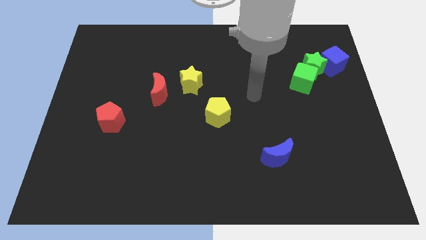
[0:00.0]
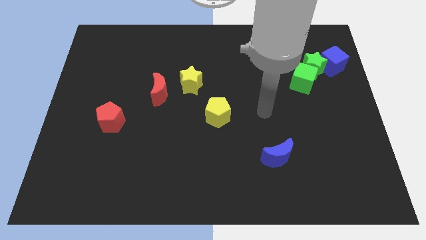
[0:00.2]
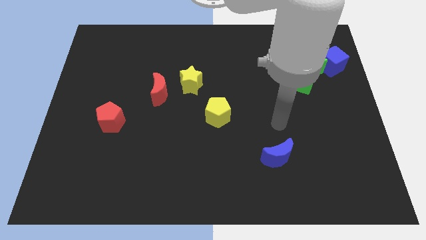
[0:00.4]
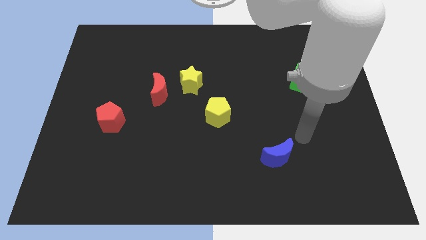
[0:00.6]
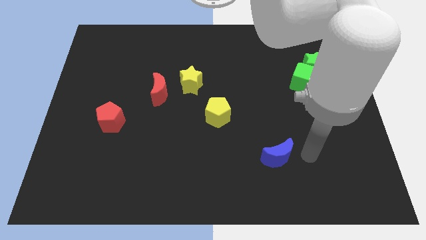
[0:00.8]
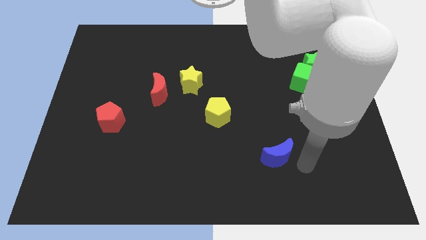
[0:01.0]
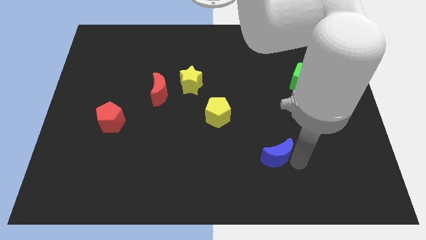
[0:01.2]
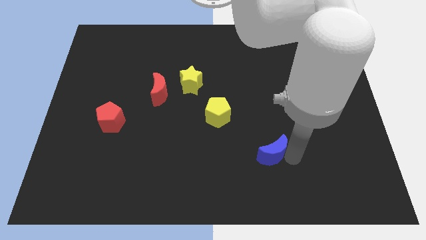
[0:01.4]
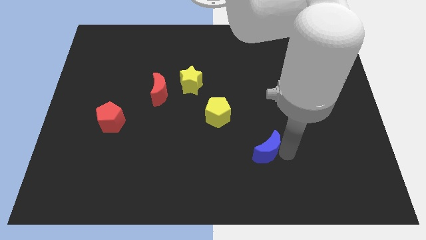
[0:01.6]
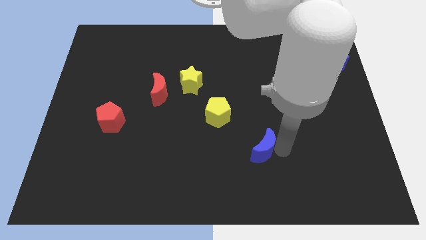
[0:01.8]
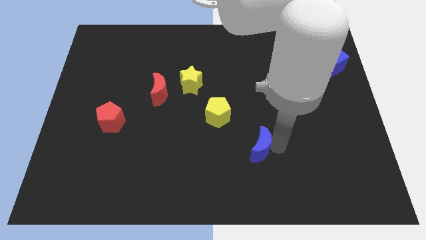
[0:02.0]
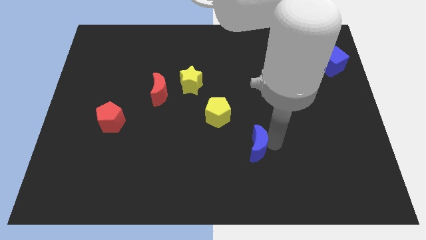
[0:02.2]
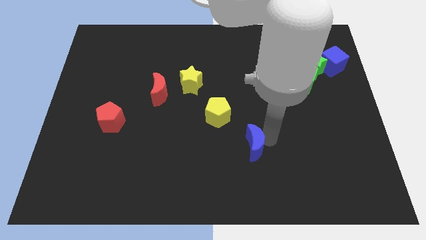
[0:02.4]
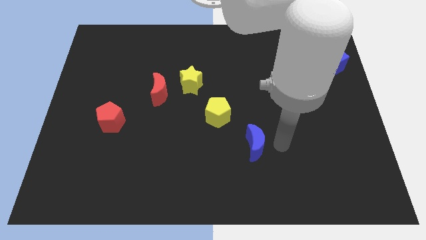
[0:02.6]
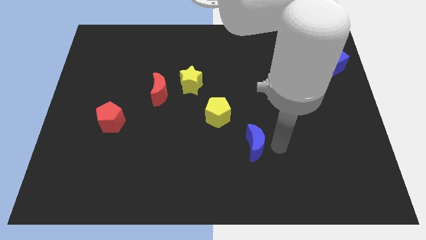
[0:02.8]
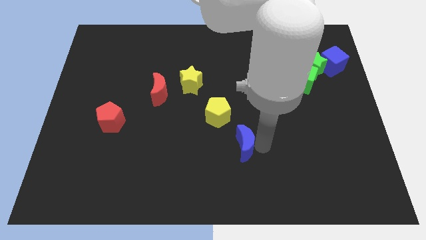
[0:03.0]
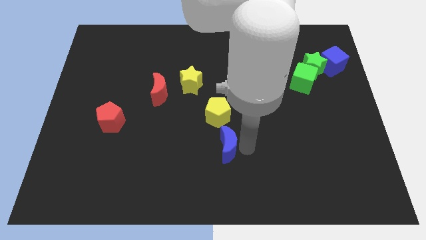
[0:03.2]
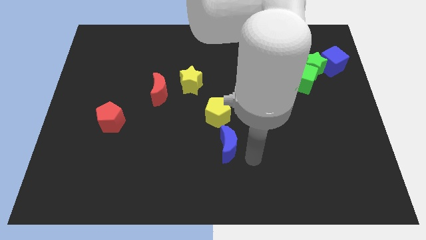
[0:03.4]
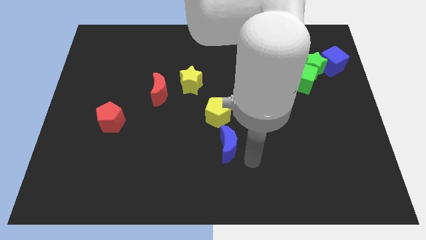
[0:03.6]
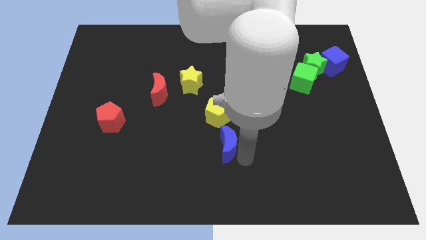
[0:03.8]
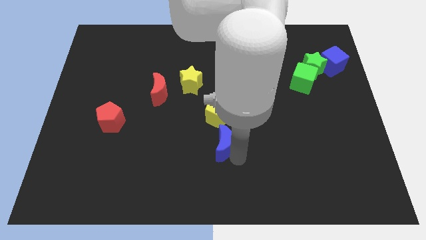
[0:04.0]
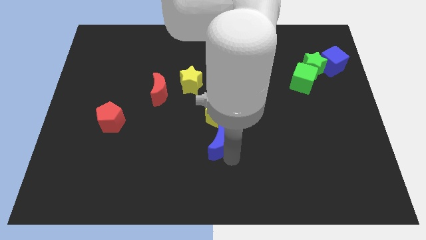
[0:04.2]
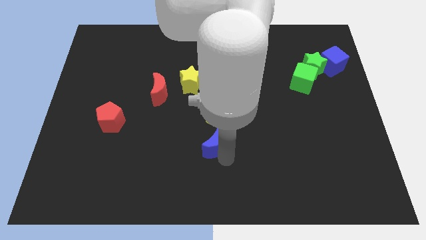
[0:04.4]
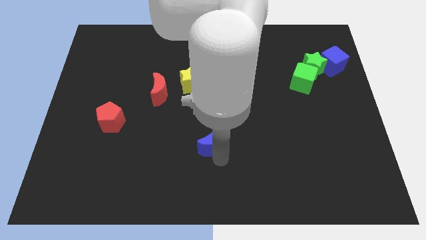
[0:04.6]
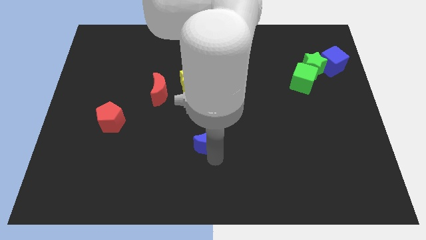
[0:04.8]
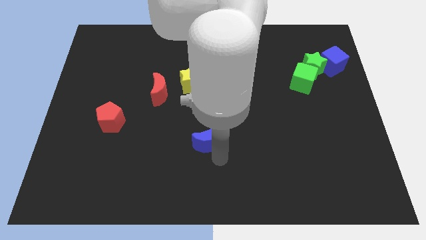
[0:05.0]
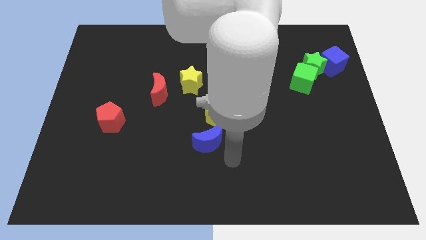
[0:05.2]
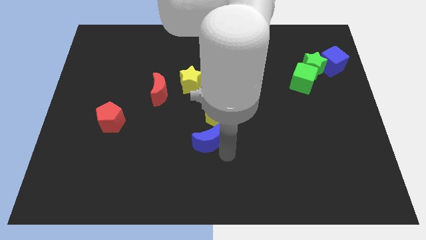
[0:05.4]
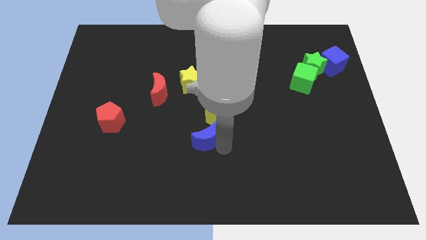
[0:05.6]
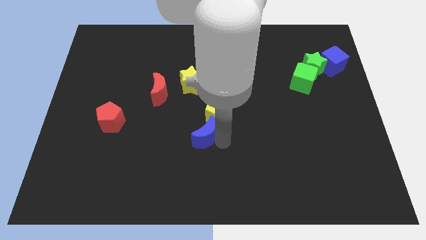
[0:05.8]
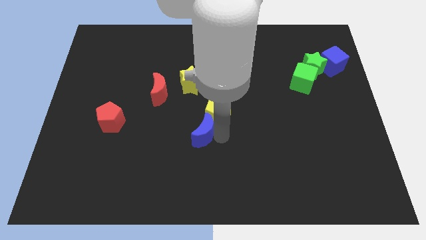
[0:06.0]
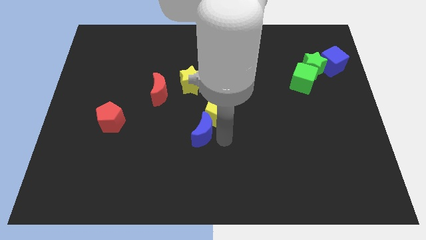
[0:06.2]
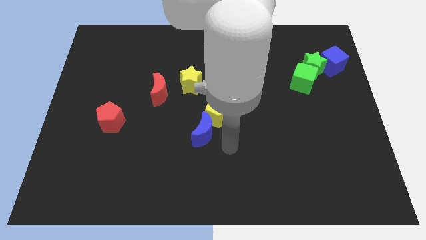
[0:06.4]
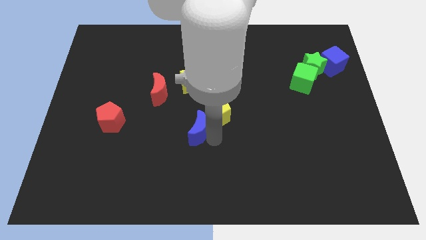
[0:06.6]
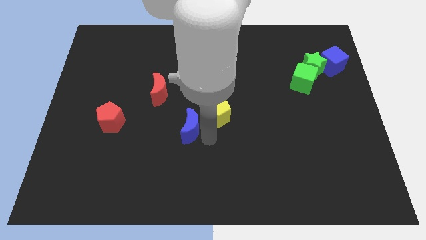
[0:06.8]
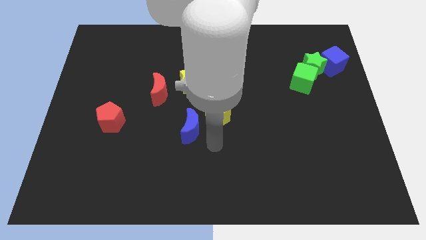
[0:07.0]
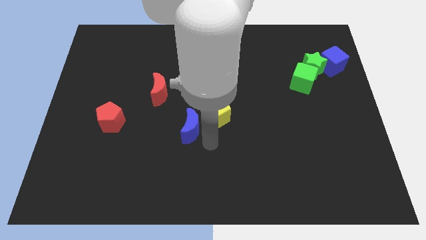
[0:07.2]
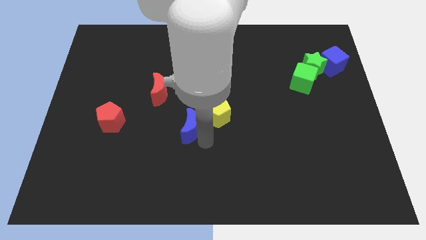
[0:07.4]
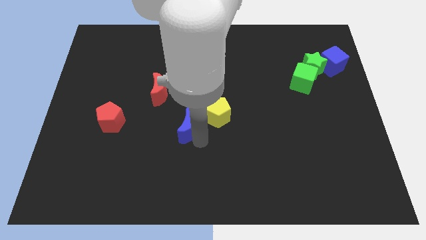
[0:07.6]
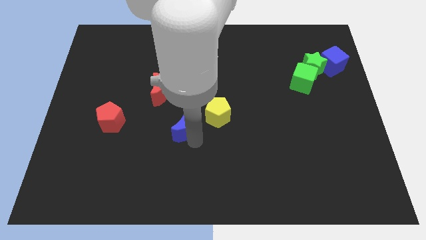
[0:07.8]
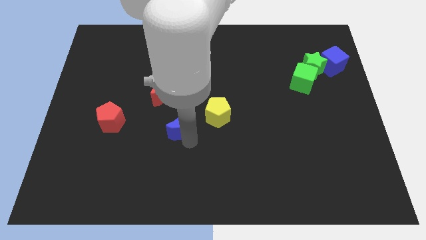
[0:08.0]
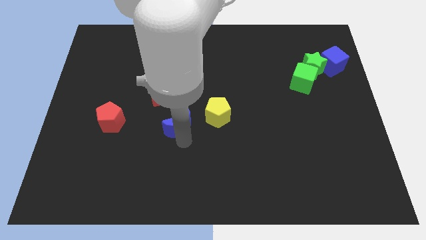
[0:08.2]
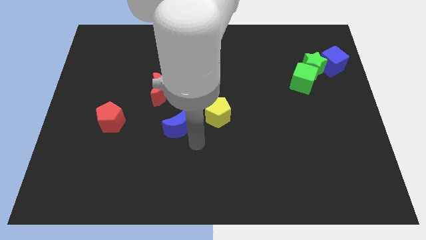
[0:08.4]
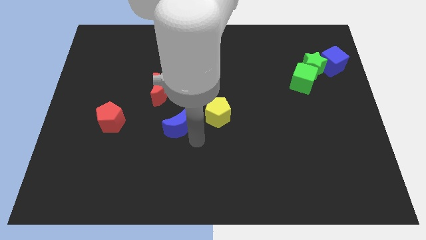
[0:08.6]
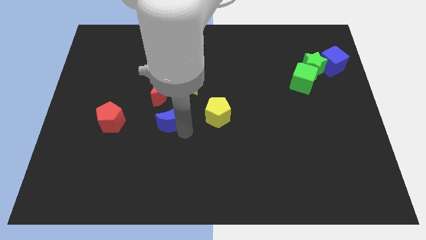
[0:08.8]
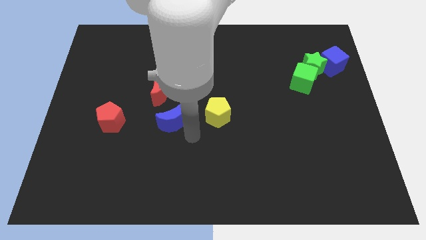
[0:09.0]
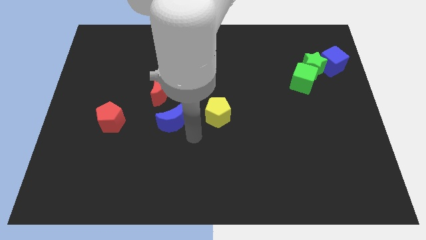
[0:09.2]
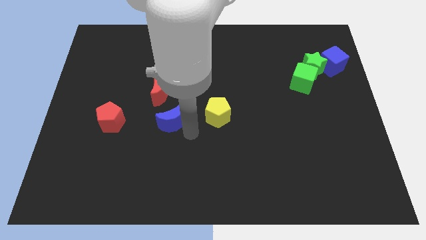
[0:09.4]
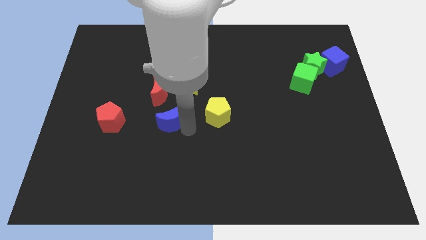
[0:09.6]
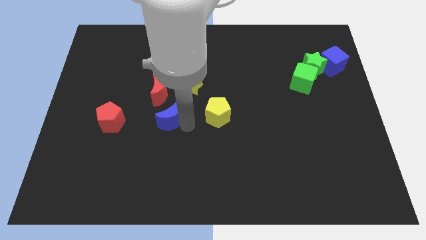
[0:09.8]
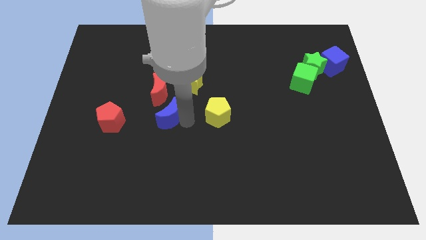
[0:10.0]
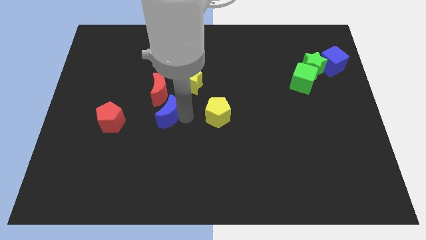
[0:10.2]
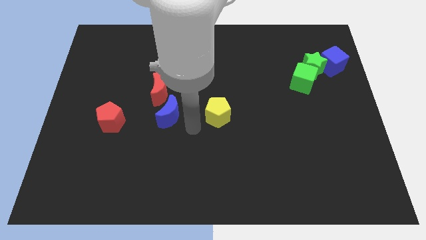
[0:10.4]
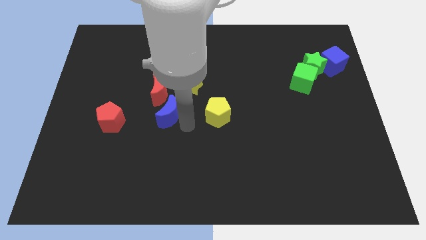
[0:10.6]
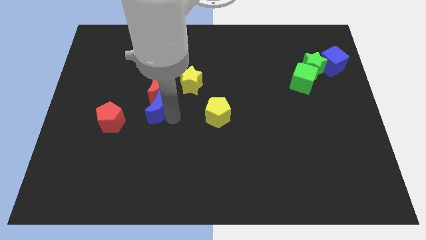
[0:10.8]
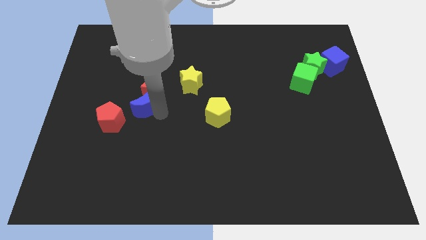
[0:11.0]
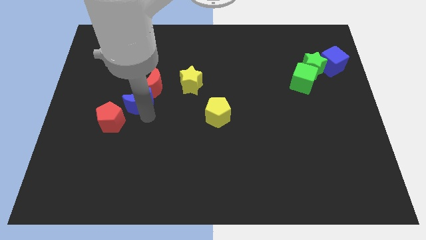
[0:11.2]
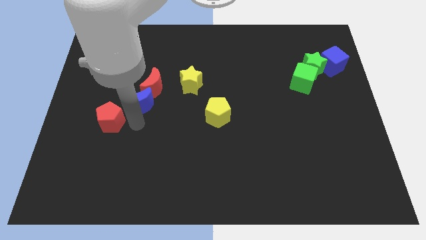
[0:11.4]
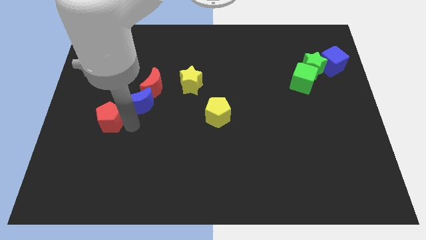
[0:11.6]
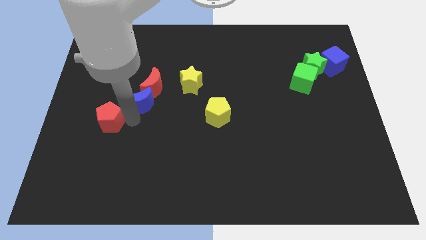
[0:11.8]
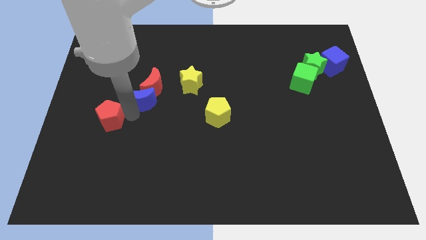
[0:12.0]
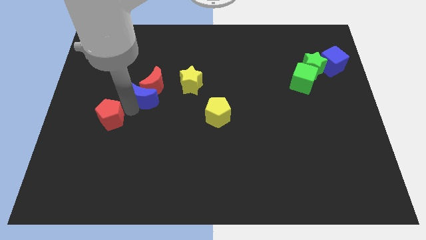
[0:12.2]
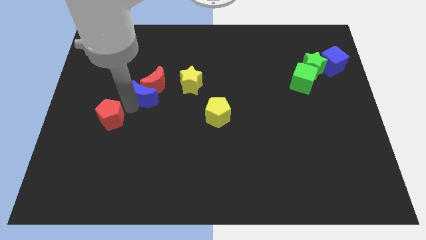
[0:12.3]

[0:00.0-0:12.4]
push the blue moon just left of the yellow star

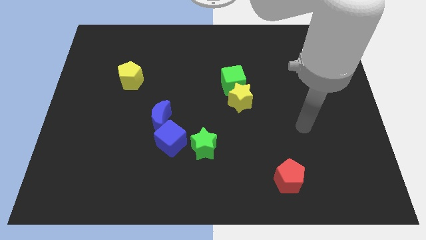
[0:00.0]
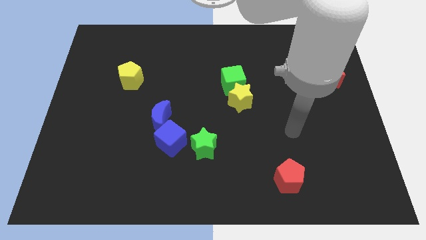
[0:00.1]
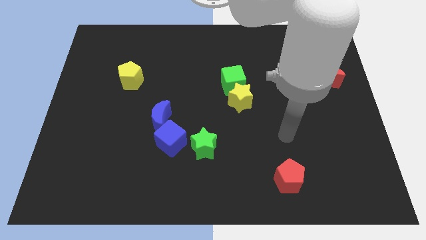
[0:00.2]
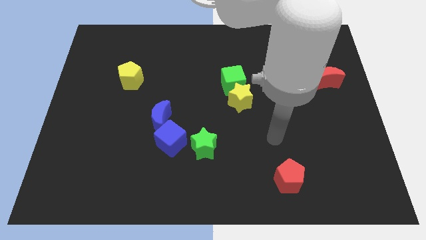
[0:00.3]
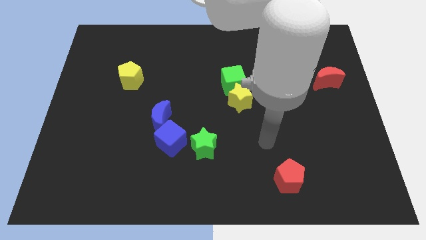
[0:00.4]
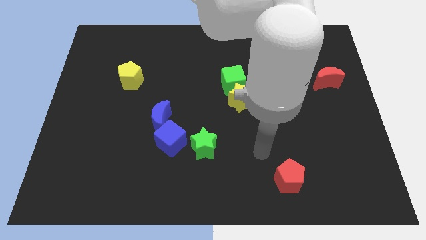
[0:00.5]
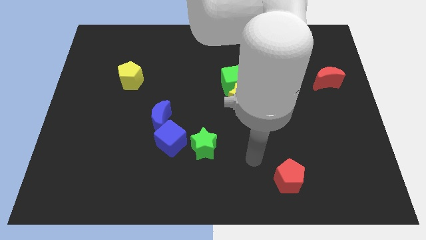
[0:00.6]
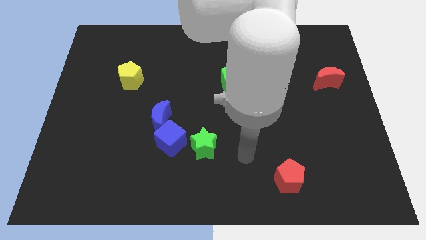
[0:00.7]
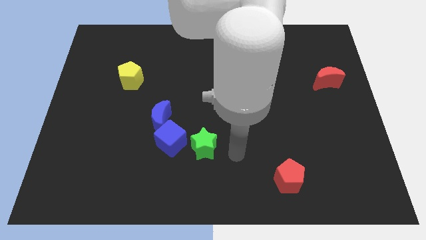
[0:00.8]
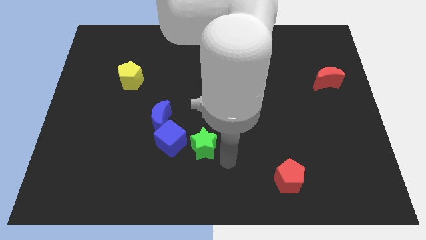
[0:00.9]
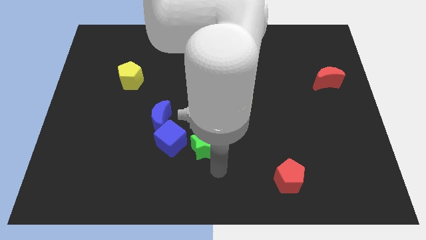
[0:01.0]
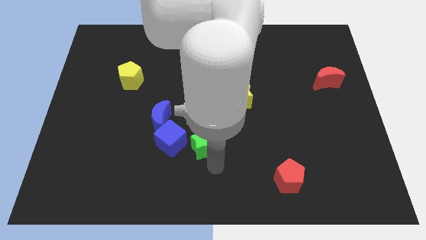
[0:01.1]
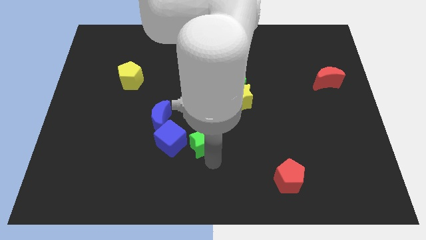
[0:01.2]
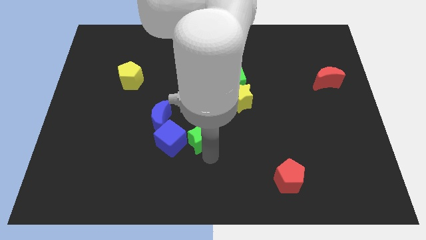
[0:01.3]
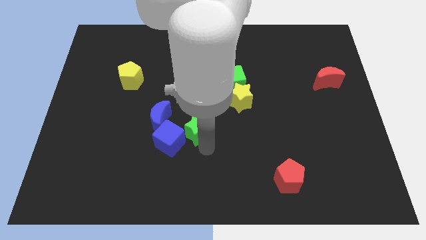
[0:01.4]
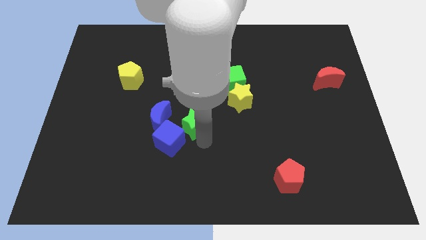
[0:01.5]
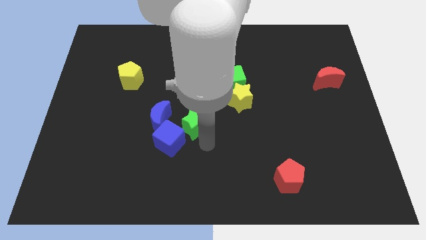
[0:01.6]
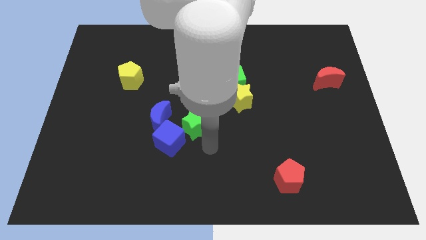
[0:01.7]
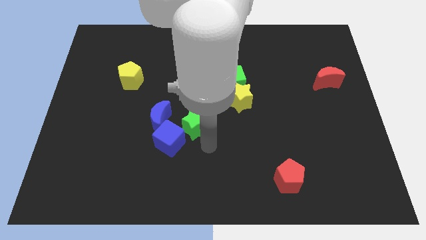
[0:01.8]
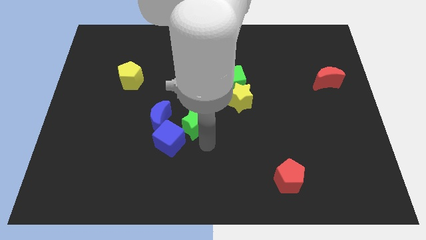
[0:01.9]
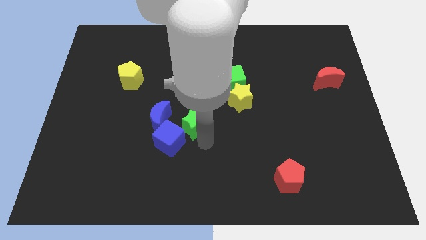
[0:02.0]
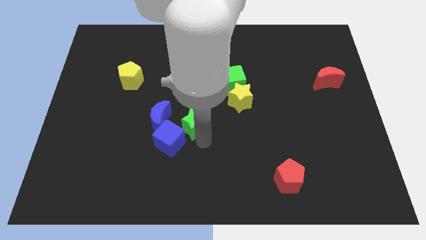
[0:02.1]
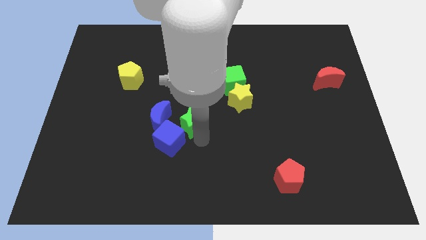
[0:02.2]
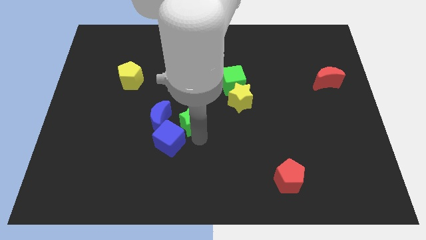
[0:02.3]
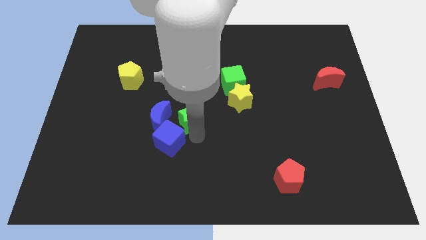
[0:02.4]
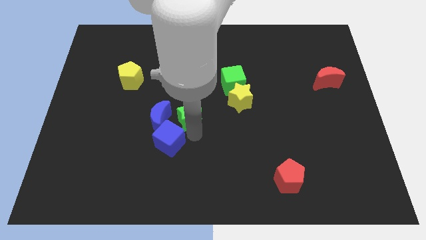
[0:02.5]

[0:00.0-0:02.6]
push the green star to the top right of the blue moon
